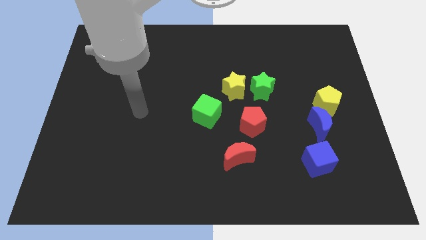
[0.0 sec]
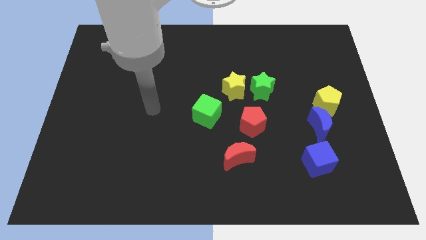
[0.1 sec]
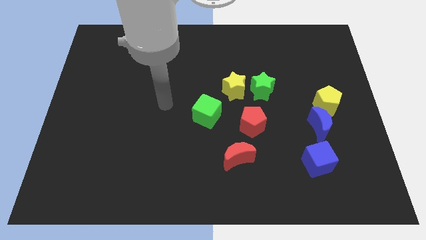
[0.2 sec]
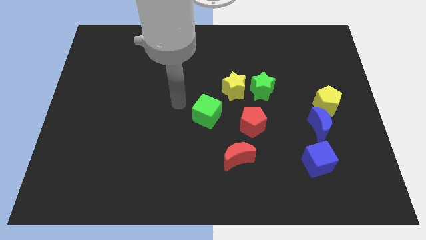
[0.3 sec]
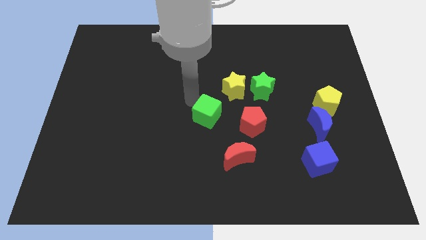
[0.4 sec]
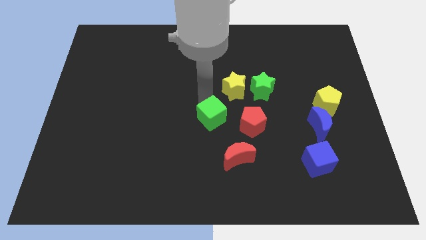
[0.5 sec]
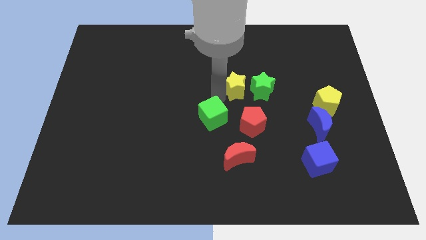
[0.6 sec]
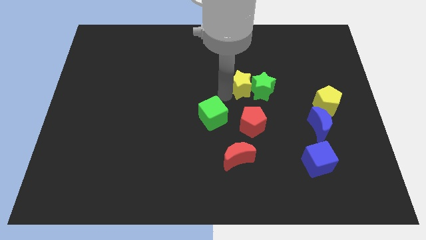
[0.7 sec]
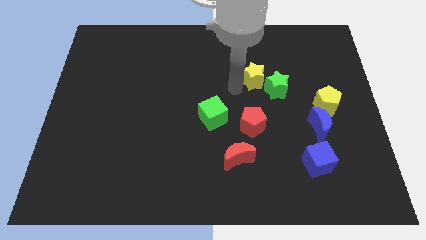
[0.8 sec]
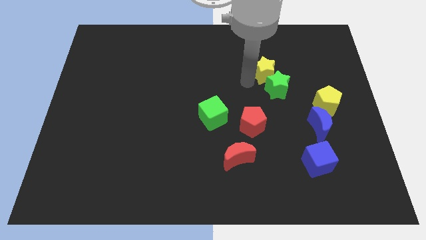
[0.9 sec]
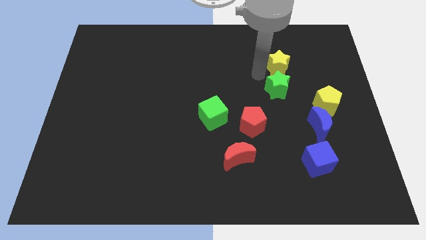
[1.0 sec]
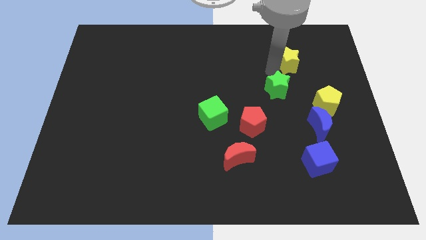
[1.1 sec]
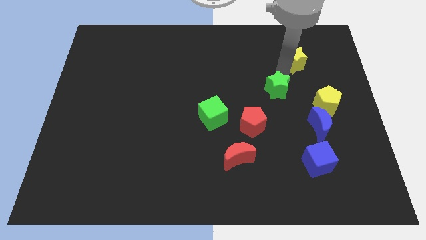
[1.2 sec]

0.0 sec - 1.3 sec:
separate the green star from the yellow star

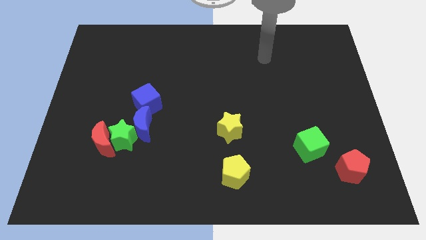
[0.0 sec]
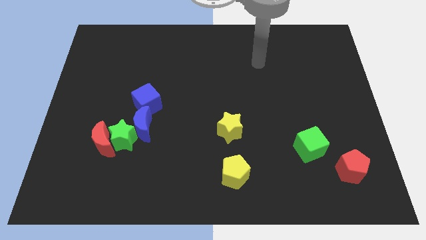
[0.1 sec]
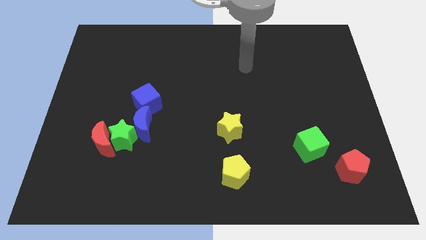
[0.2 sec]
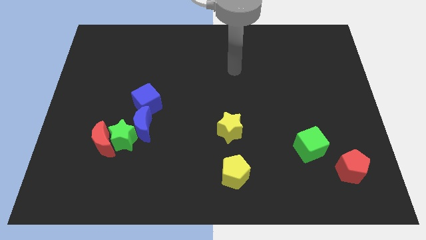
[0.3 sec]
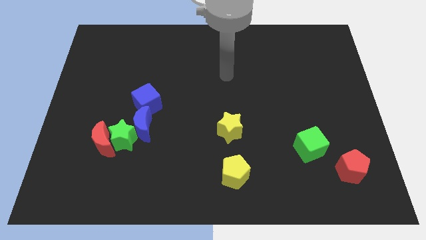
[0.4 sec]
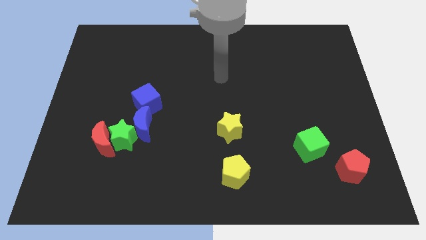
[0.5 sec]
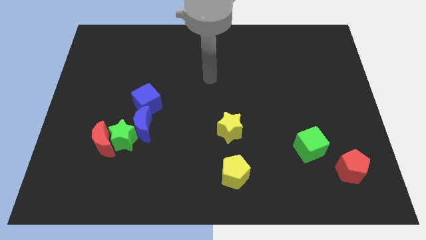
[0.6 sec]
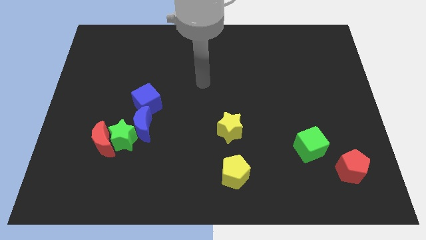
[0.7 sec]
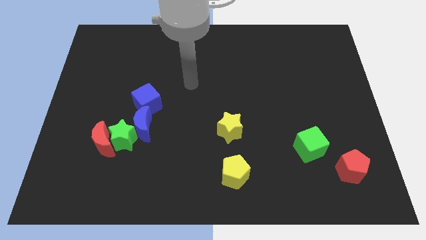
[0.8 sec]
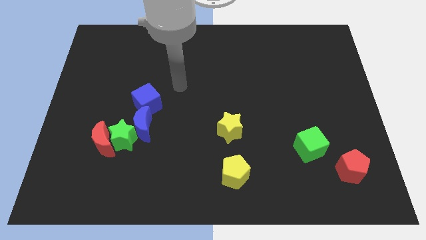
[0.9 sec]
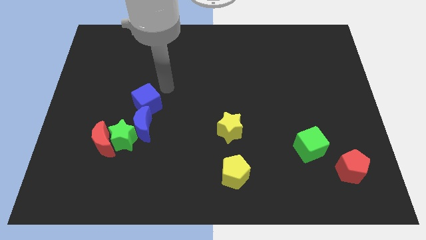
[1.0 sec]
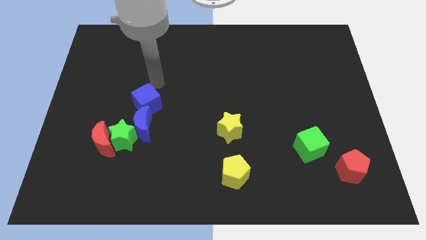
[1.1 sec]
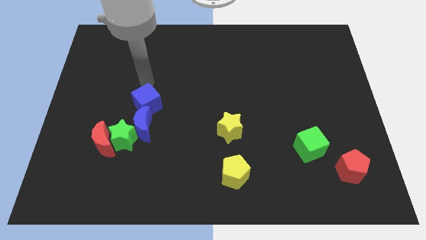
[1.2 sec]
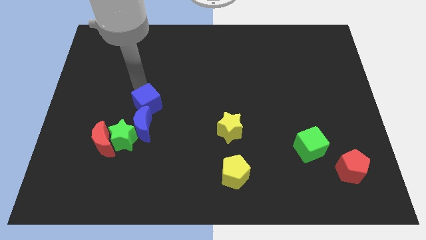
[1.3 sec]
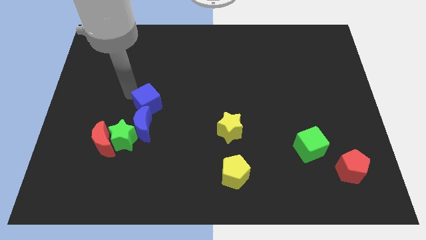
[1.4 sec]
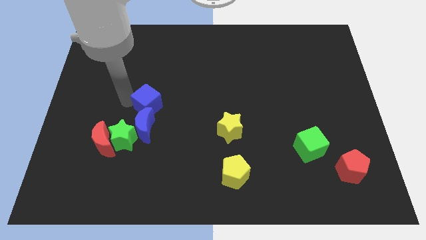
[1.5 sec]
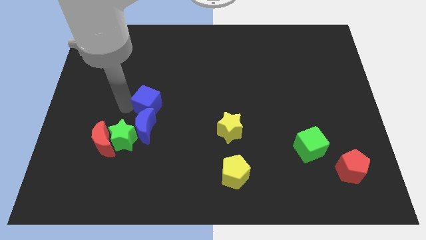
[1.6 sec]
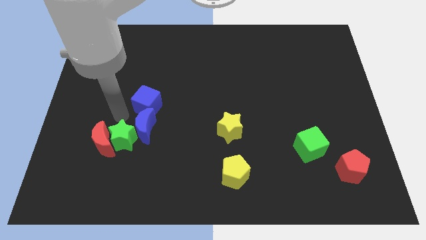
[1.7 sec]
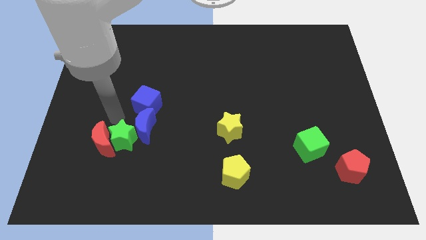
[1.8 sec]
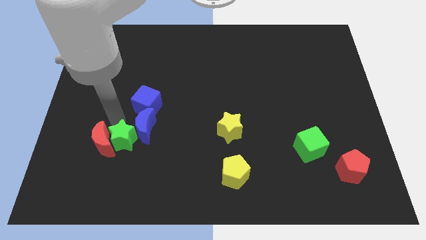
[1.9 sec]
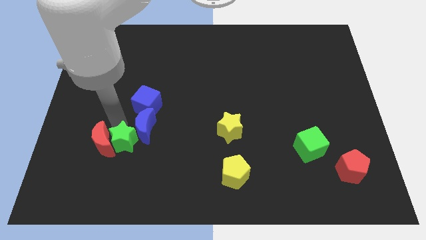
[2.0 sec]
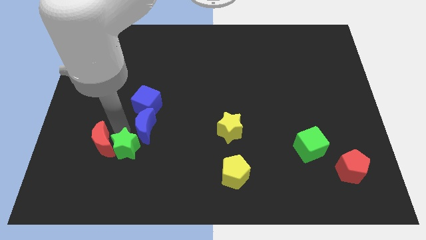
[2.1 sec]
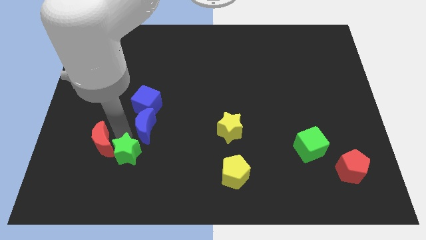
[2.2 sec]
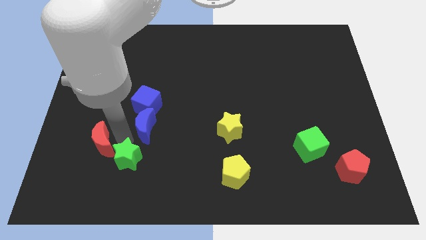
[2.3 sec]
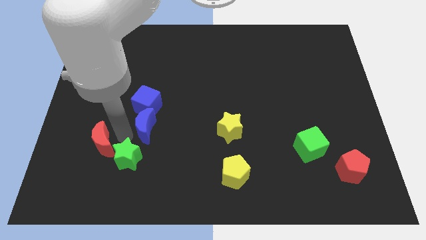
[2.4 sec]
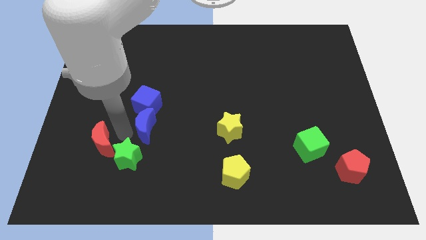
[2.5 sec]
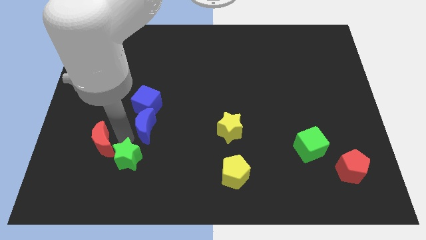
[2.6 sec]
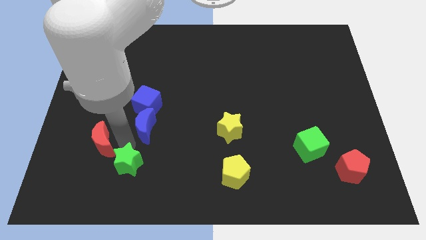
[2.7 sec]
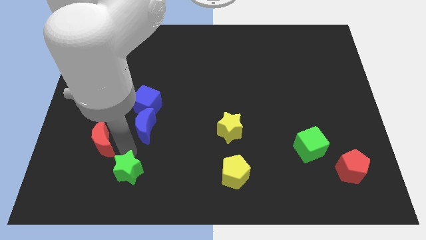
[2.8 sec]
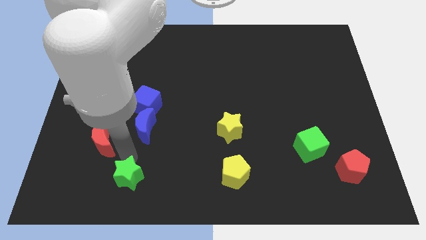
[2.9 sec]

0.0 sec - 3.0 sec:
separate the green star from the red moon and blue moon

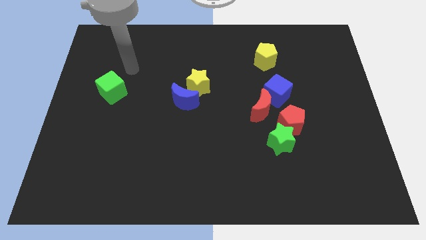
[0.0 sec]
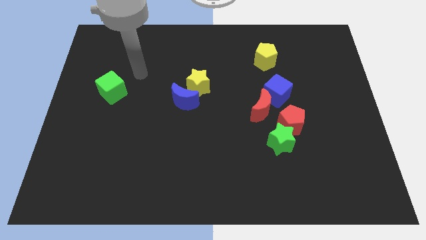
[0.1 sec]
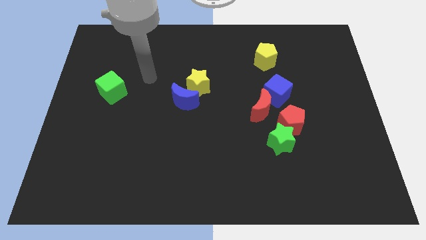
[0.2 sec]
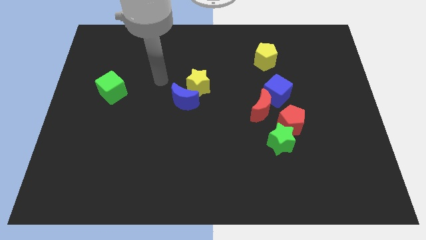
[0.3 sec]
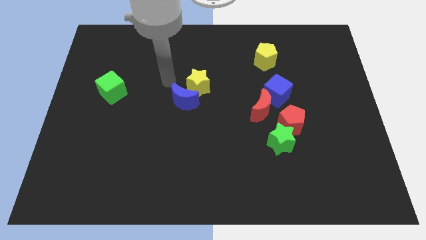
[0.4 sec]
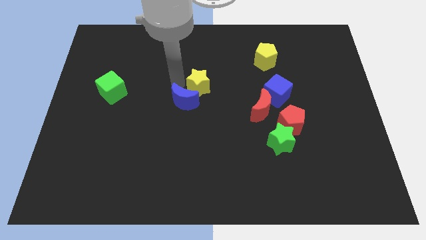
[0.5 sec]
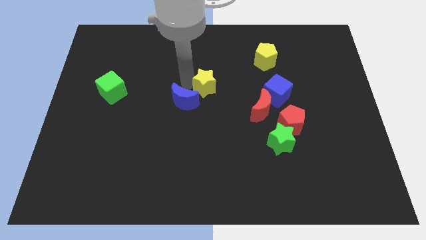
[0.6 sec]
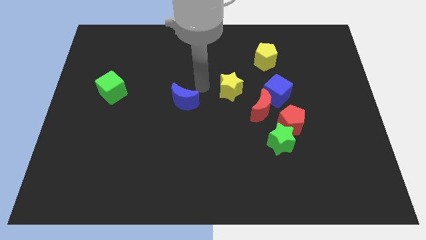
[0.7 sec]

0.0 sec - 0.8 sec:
separate the blue moon from the yellow star

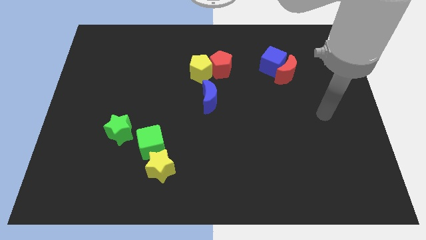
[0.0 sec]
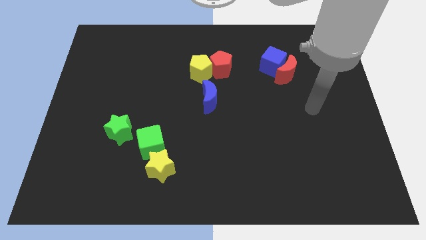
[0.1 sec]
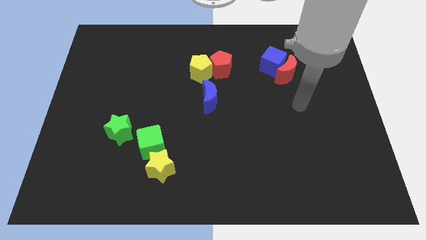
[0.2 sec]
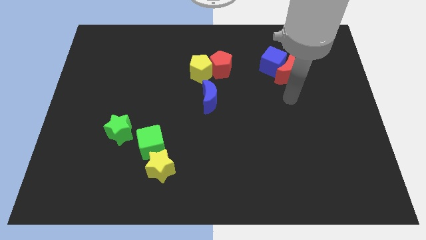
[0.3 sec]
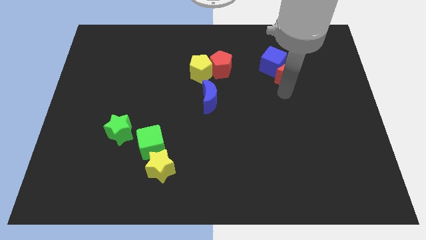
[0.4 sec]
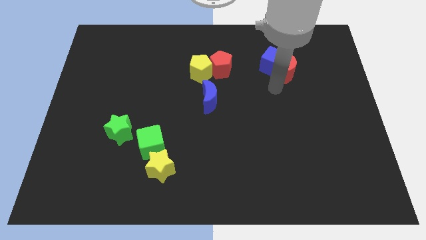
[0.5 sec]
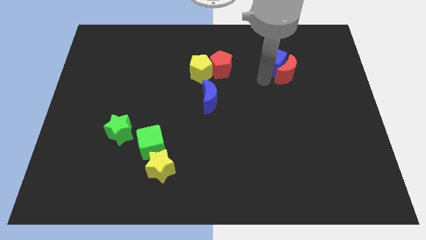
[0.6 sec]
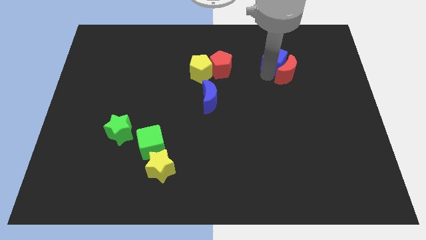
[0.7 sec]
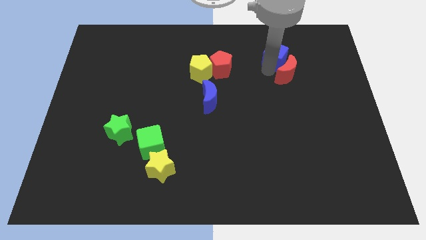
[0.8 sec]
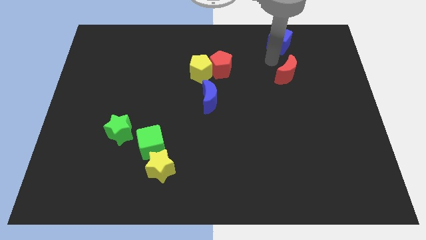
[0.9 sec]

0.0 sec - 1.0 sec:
move the red moon away from the blue cube

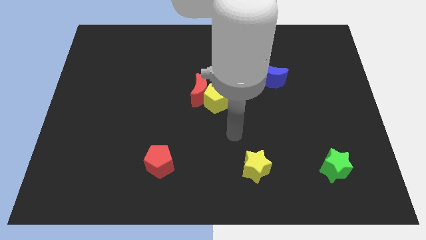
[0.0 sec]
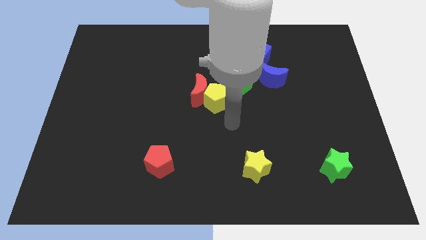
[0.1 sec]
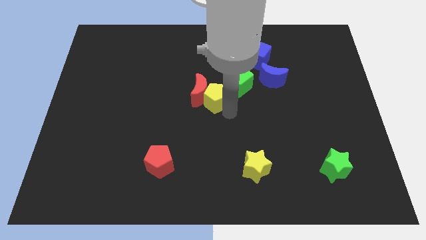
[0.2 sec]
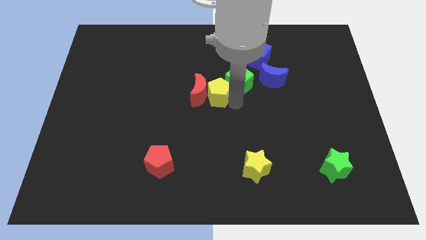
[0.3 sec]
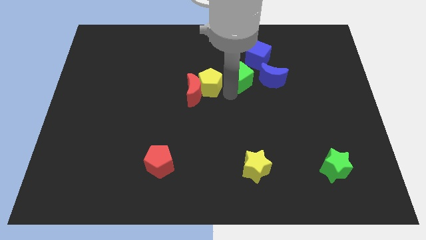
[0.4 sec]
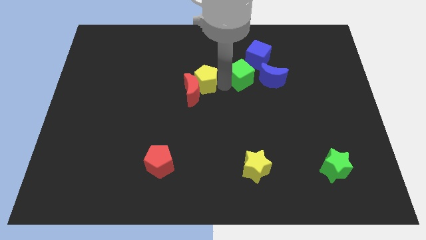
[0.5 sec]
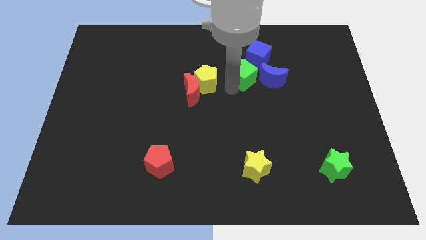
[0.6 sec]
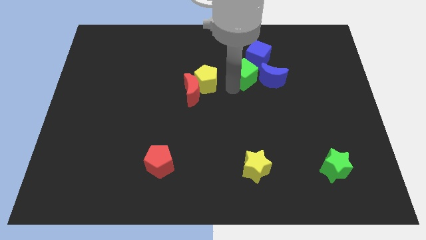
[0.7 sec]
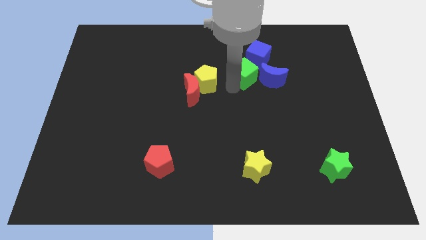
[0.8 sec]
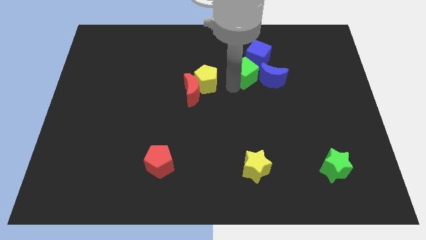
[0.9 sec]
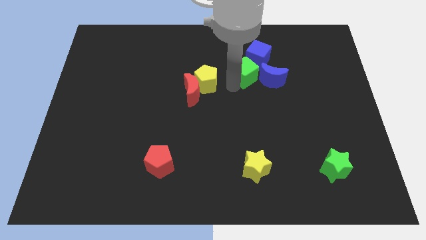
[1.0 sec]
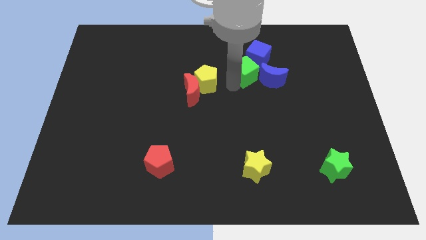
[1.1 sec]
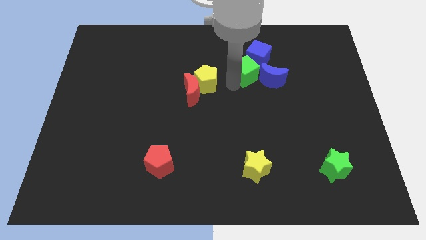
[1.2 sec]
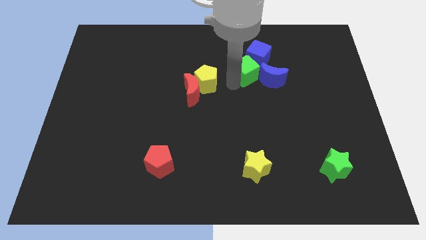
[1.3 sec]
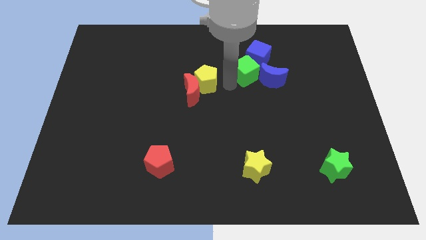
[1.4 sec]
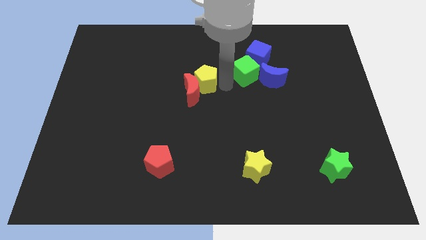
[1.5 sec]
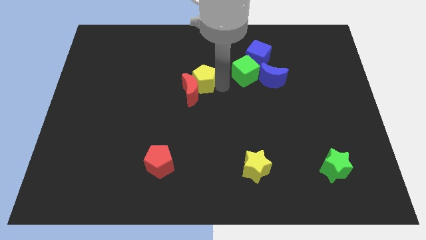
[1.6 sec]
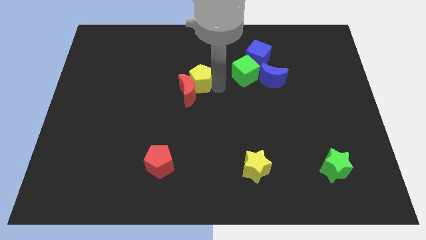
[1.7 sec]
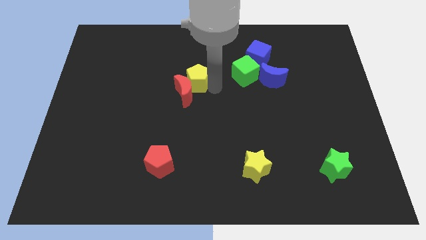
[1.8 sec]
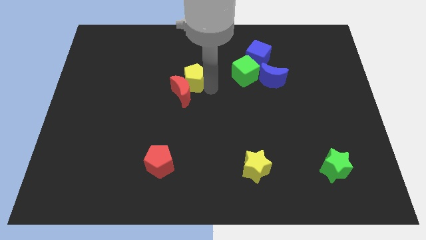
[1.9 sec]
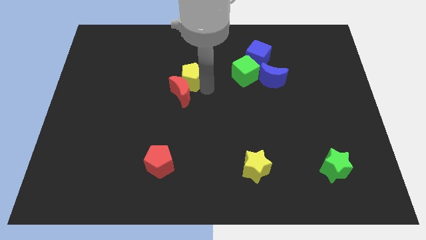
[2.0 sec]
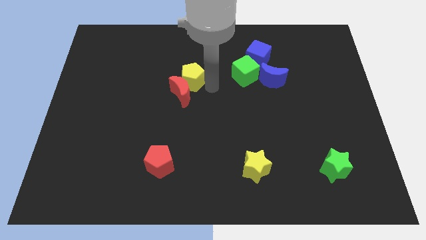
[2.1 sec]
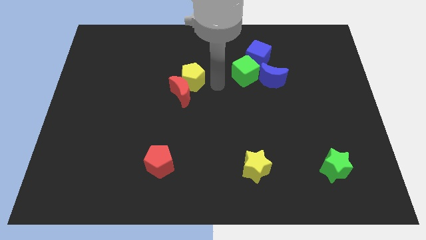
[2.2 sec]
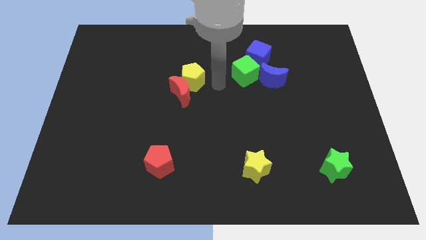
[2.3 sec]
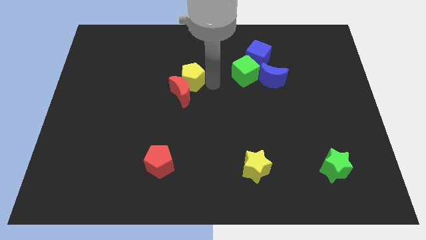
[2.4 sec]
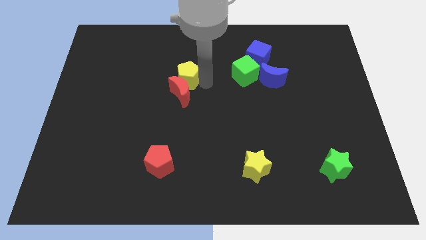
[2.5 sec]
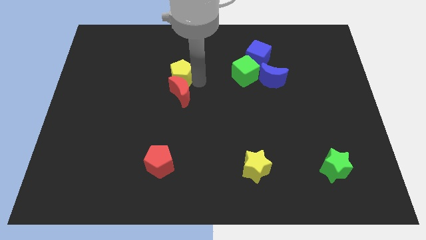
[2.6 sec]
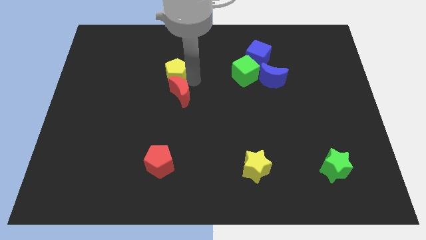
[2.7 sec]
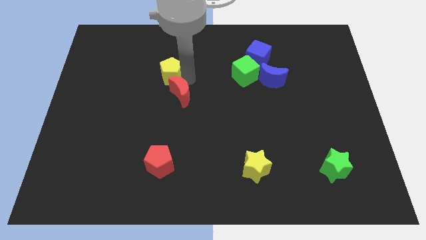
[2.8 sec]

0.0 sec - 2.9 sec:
move the yellow pentagon away from the red moon and green cube

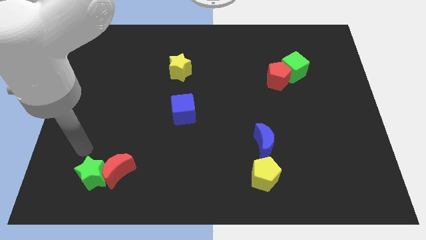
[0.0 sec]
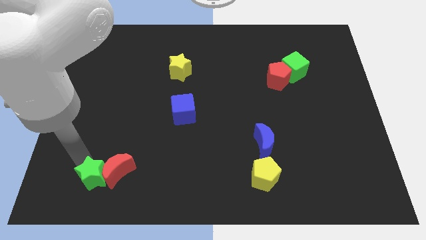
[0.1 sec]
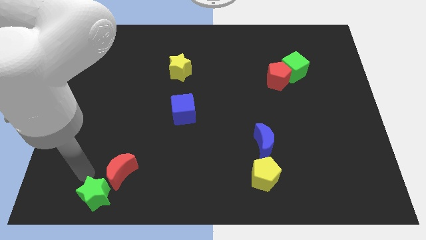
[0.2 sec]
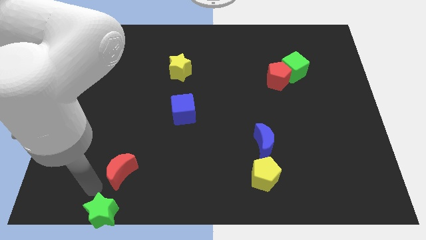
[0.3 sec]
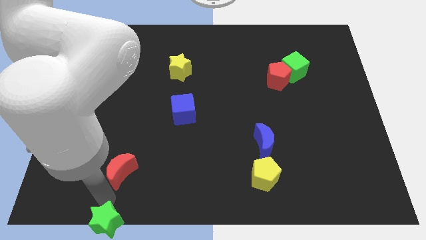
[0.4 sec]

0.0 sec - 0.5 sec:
move the red moon away from the green star

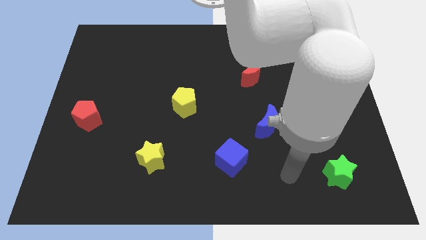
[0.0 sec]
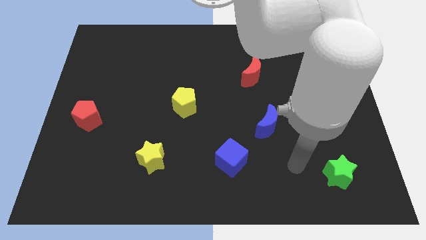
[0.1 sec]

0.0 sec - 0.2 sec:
separate the blue moon from the green cube
